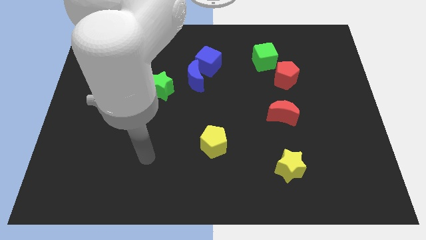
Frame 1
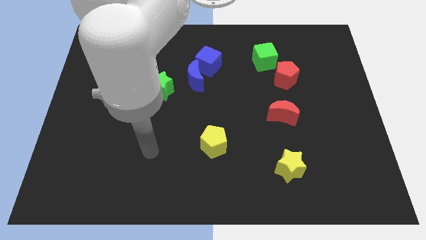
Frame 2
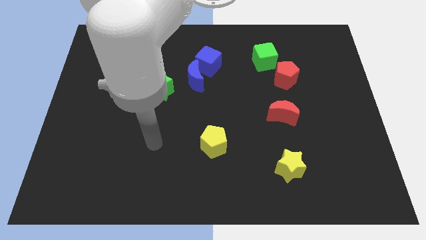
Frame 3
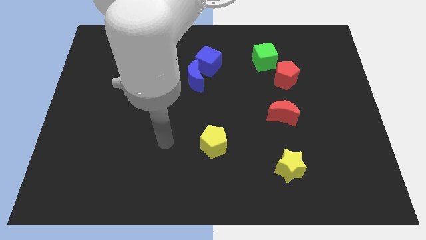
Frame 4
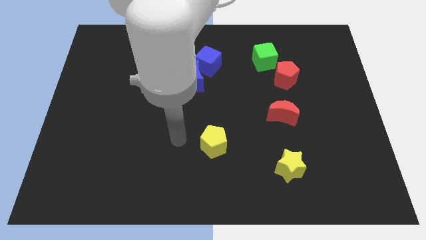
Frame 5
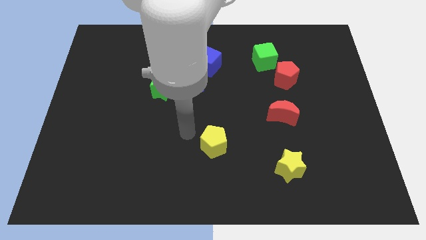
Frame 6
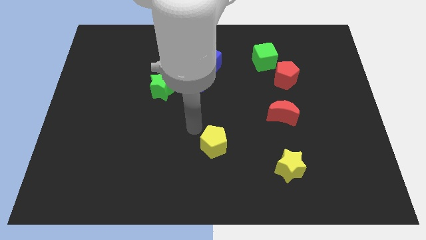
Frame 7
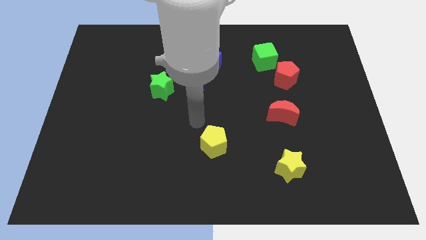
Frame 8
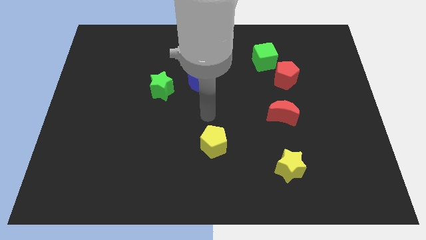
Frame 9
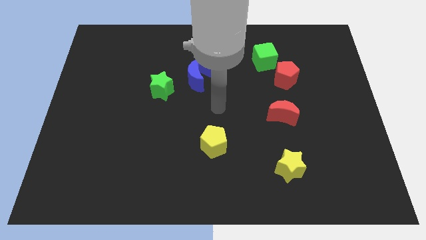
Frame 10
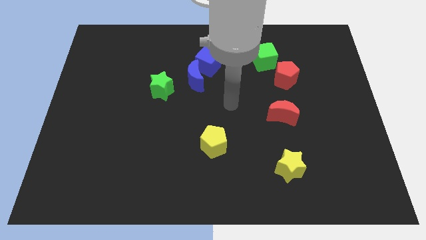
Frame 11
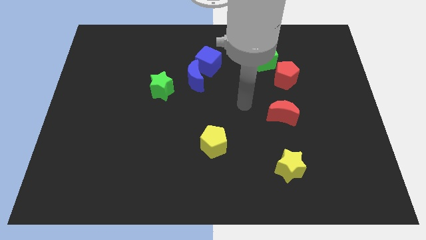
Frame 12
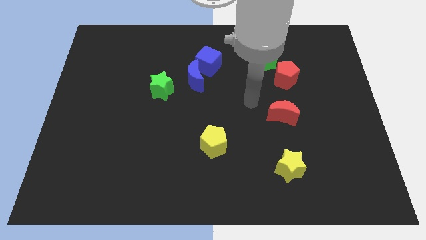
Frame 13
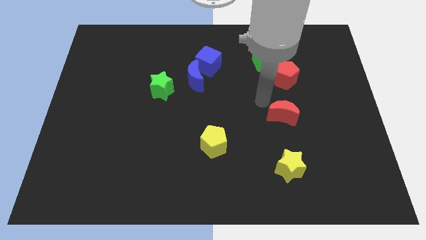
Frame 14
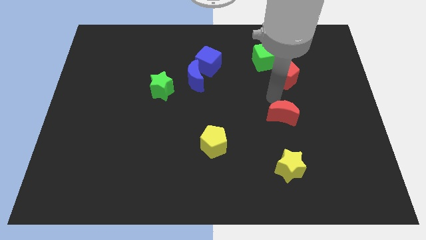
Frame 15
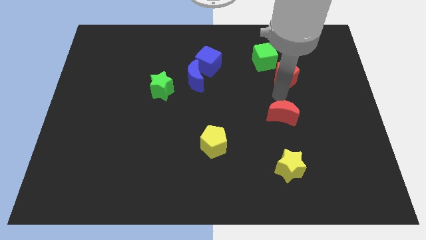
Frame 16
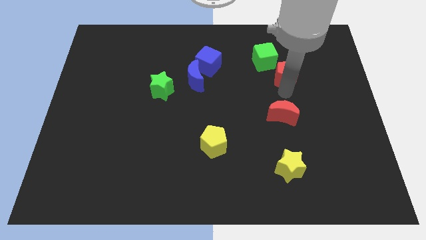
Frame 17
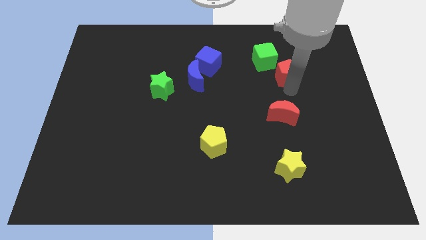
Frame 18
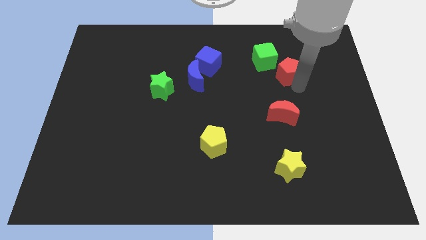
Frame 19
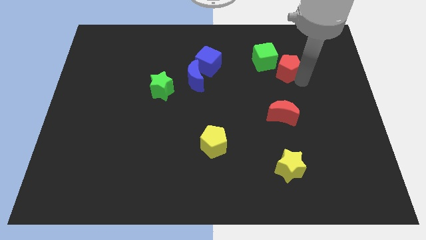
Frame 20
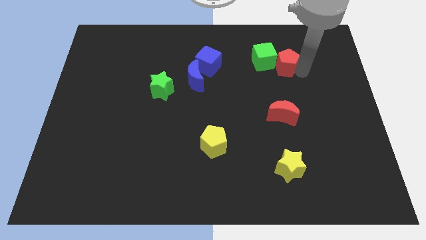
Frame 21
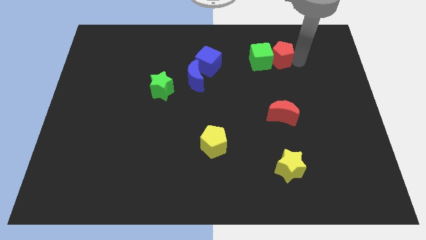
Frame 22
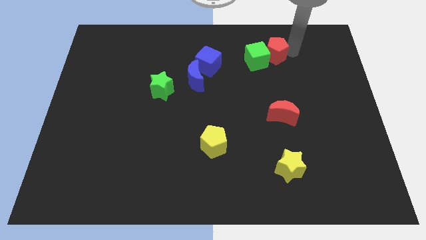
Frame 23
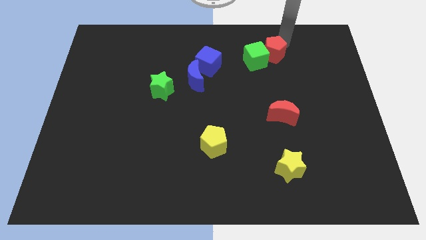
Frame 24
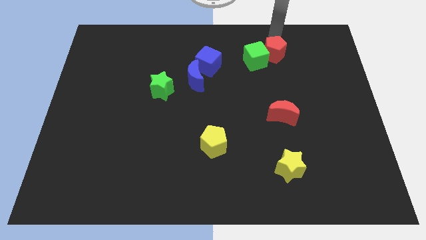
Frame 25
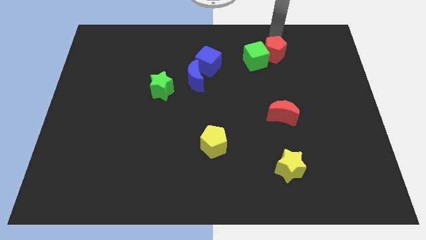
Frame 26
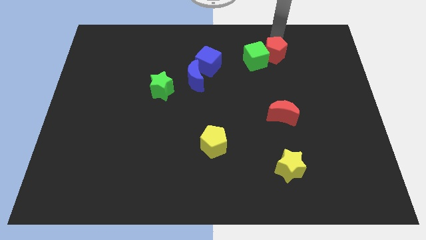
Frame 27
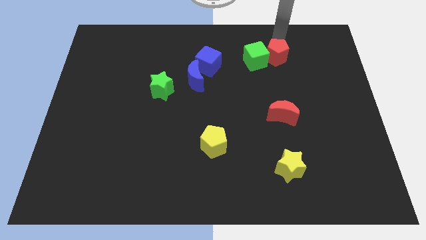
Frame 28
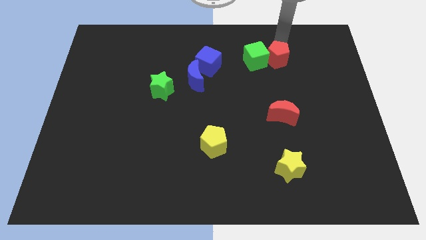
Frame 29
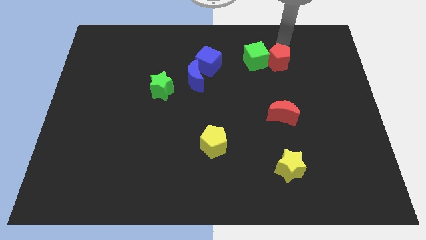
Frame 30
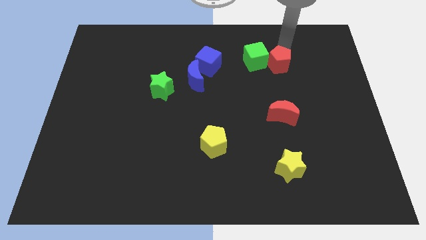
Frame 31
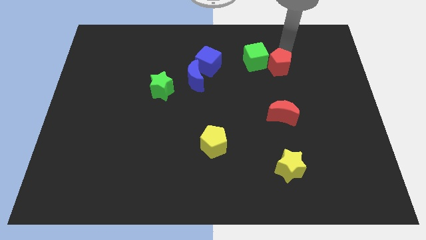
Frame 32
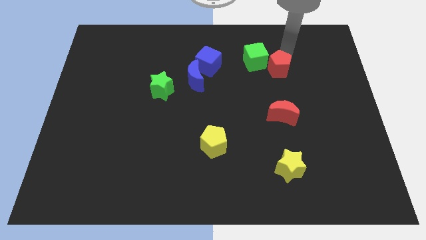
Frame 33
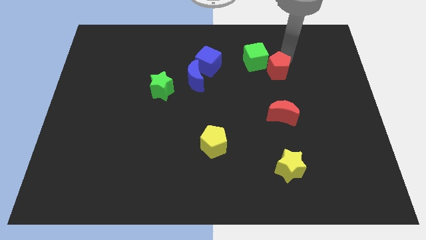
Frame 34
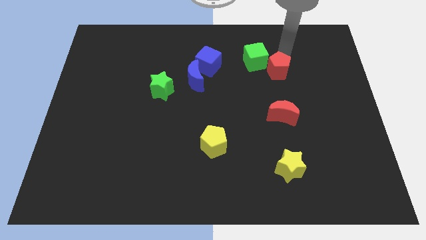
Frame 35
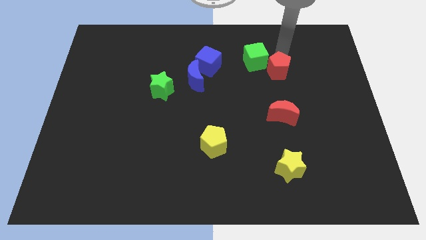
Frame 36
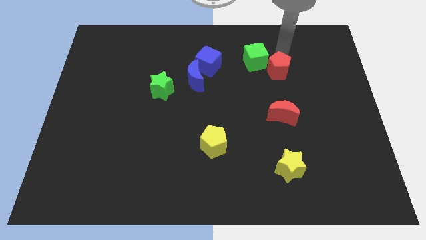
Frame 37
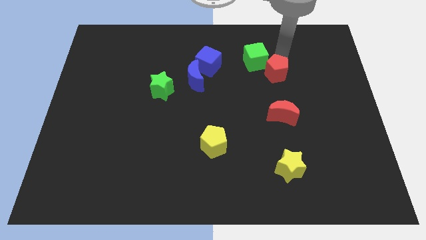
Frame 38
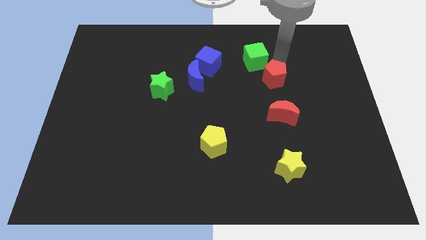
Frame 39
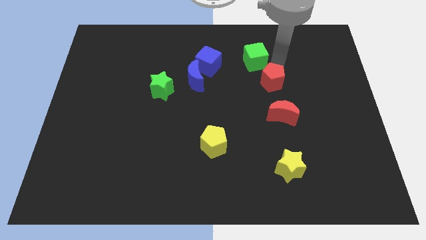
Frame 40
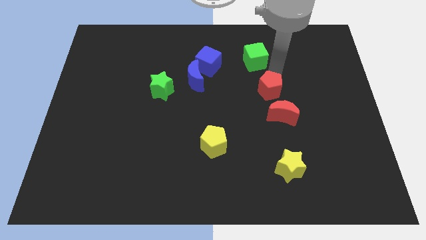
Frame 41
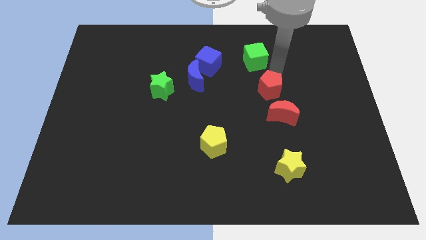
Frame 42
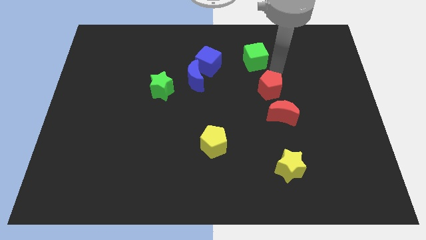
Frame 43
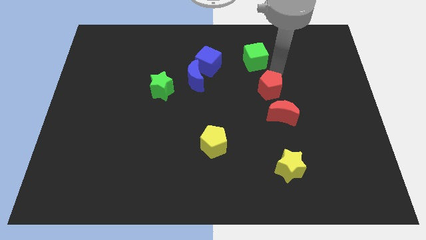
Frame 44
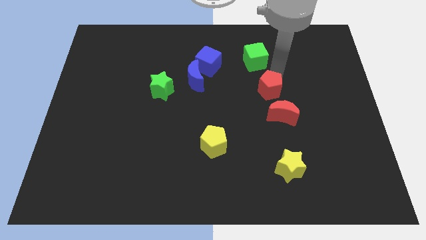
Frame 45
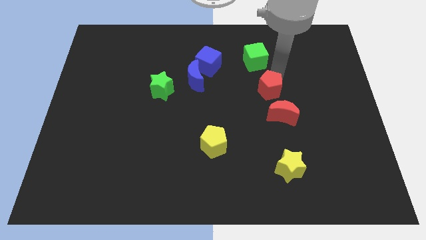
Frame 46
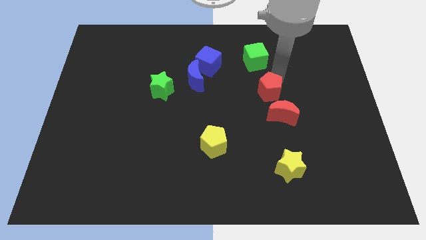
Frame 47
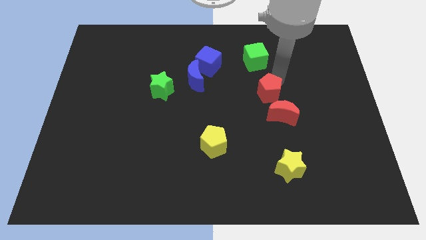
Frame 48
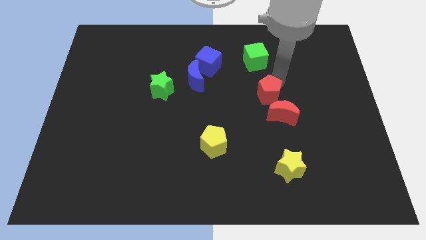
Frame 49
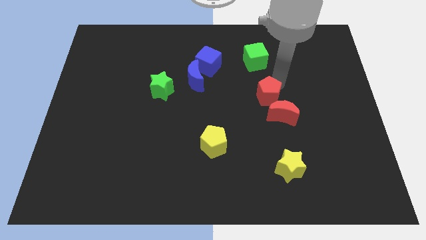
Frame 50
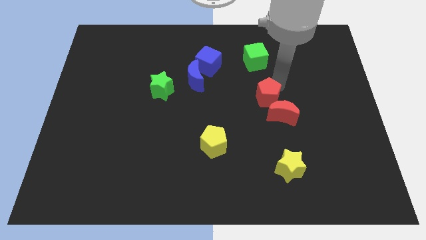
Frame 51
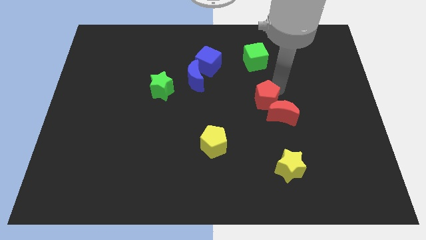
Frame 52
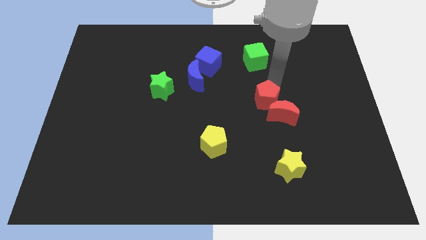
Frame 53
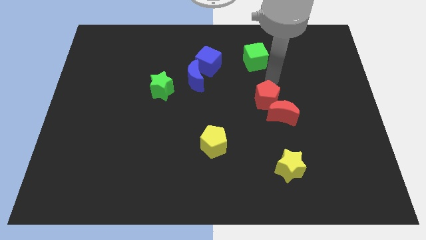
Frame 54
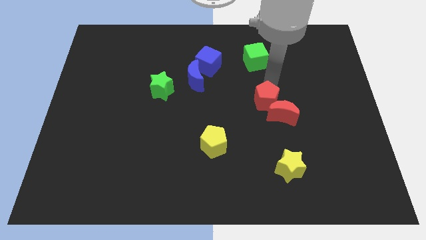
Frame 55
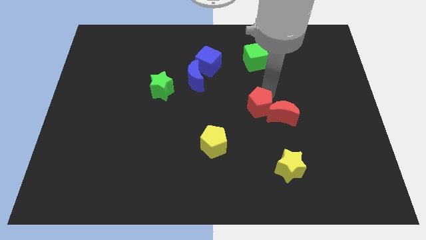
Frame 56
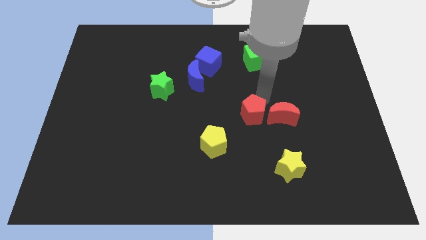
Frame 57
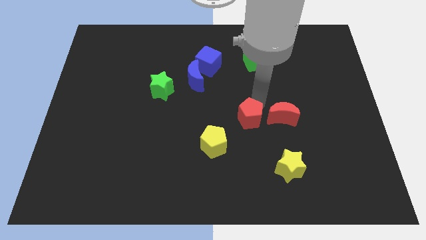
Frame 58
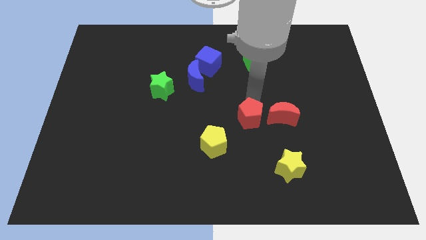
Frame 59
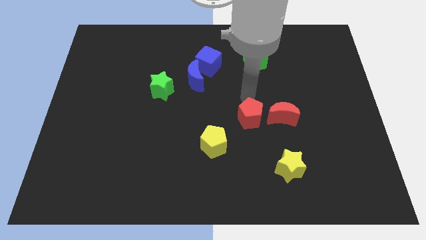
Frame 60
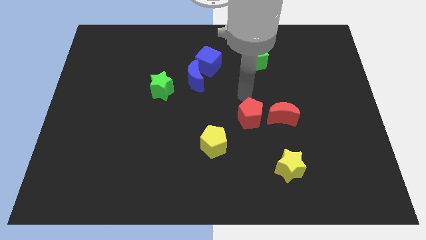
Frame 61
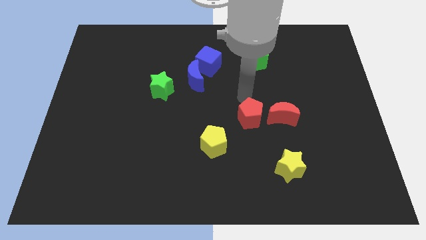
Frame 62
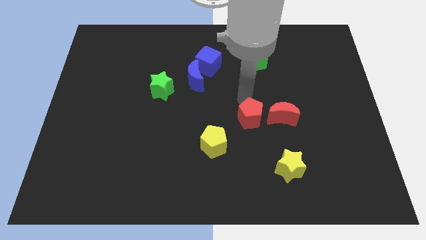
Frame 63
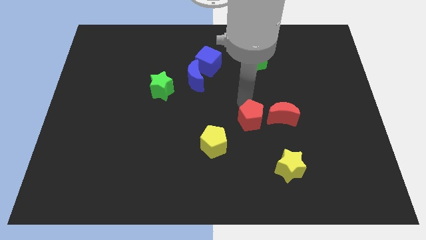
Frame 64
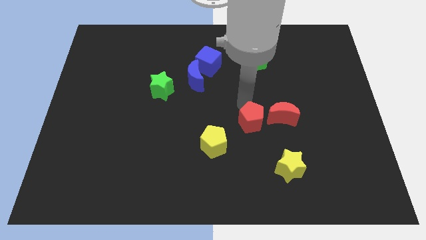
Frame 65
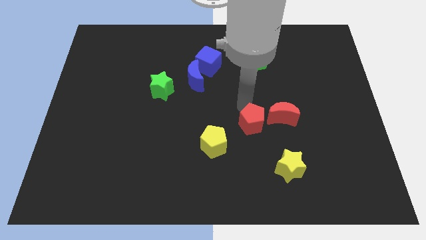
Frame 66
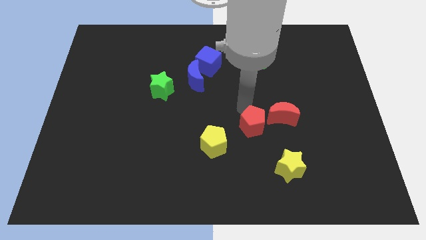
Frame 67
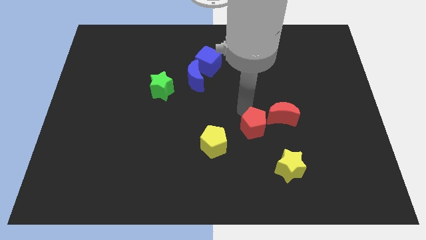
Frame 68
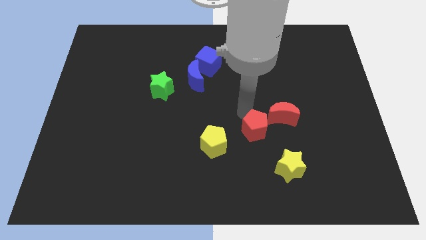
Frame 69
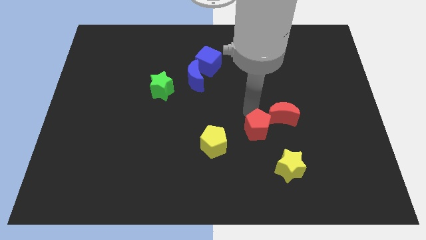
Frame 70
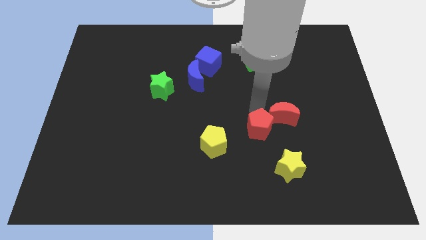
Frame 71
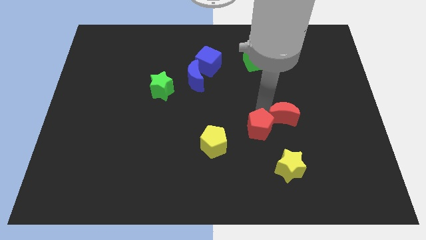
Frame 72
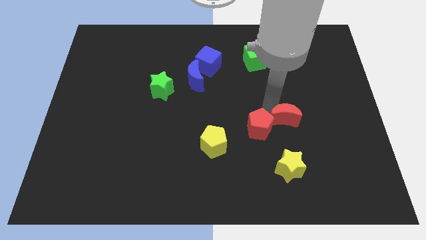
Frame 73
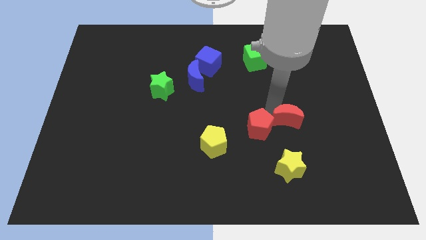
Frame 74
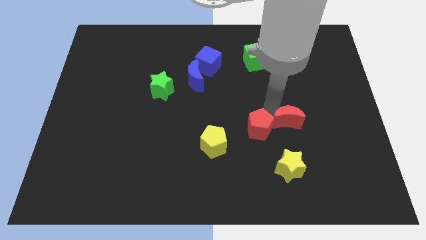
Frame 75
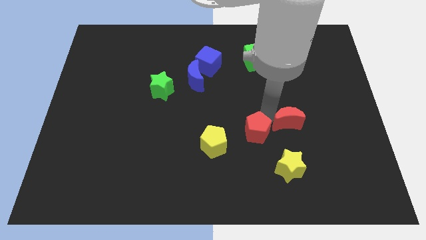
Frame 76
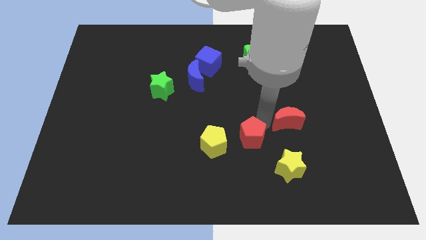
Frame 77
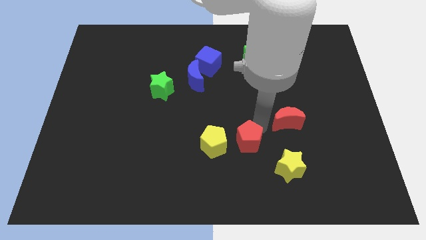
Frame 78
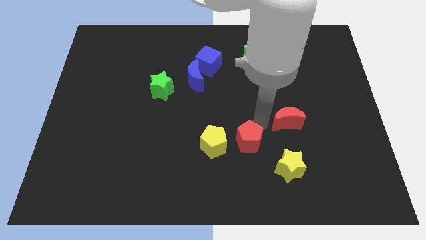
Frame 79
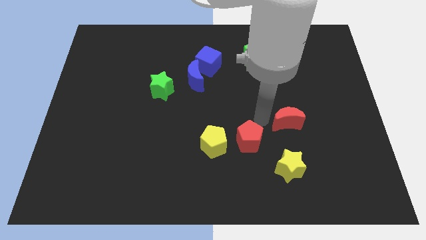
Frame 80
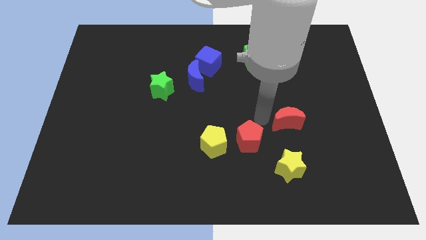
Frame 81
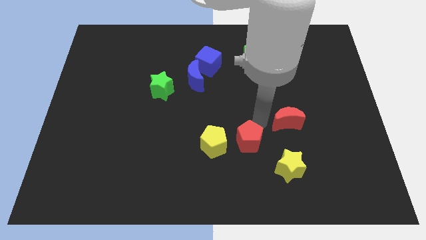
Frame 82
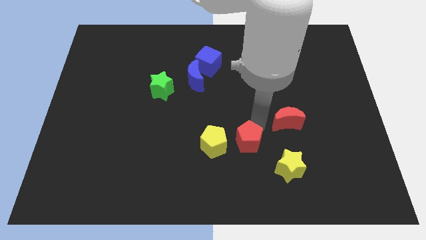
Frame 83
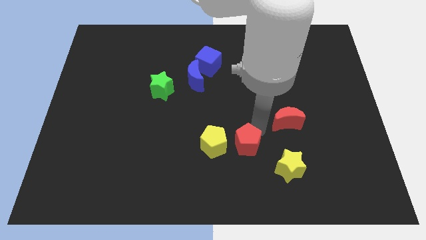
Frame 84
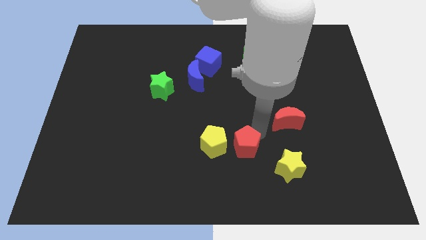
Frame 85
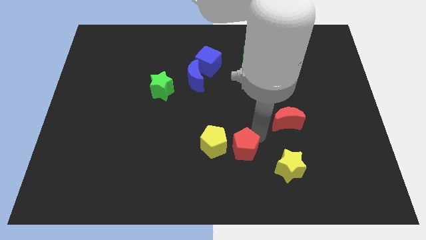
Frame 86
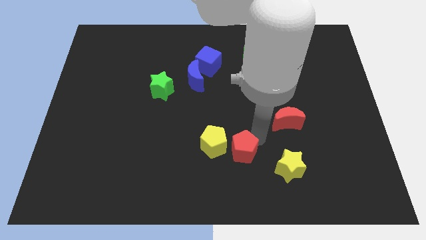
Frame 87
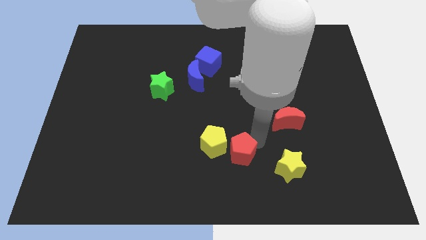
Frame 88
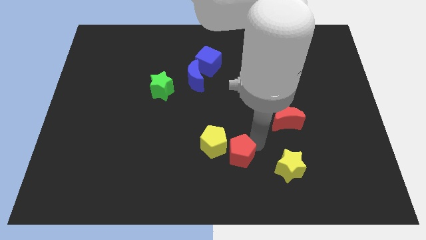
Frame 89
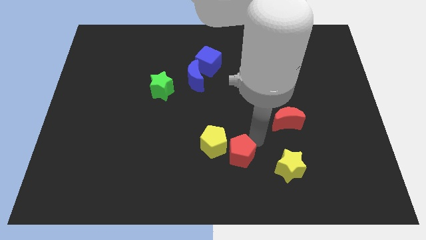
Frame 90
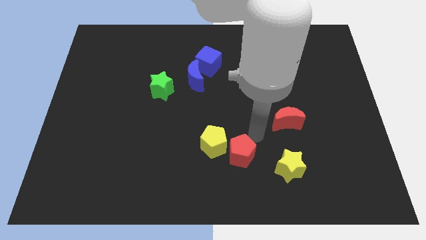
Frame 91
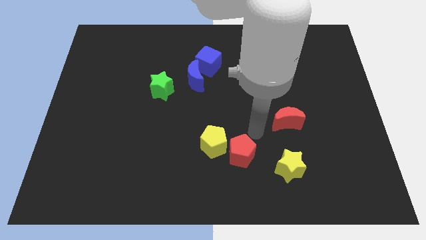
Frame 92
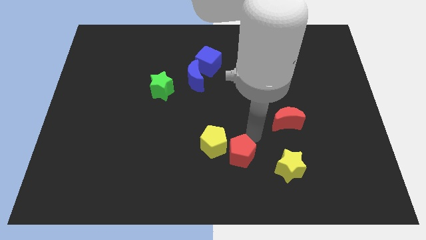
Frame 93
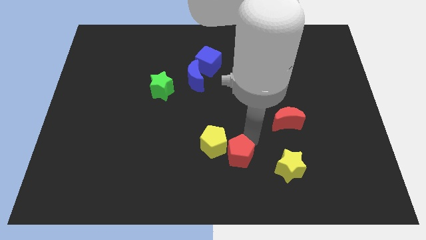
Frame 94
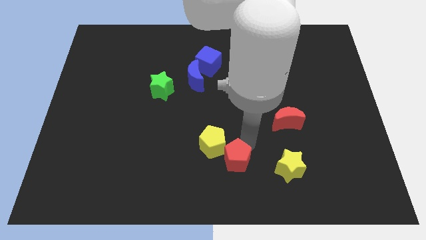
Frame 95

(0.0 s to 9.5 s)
move the red pentagon to the bottom
